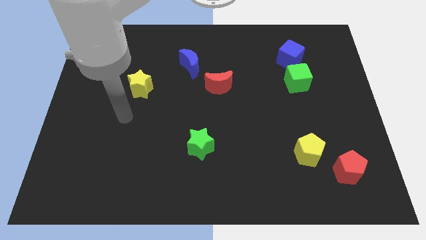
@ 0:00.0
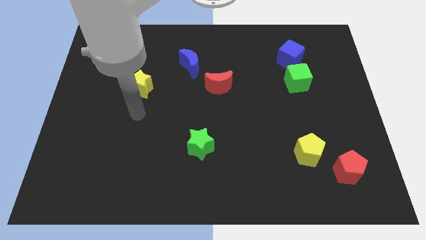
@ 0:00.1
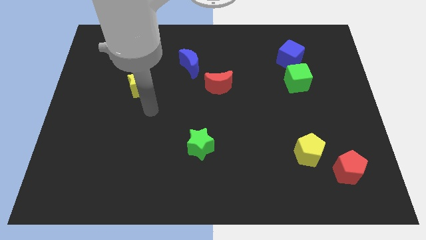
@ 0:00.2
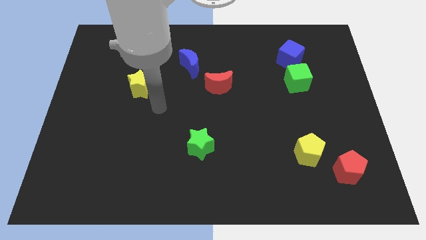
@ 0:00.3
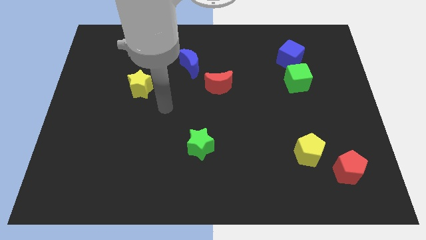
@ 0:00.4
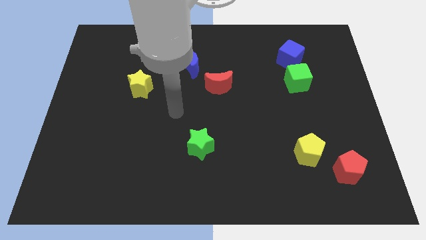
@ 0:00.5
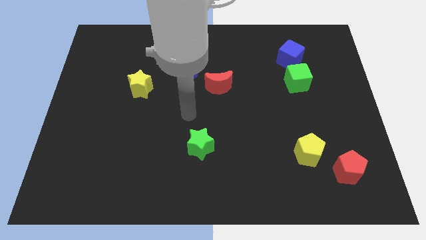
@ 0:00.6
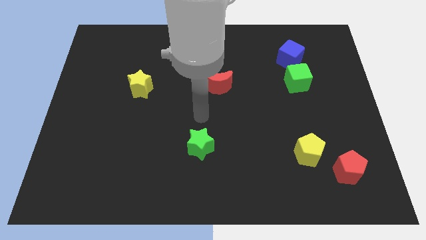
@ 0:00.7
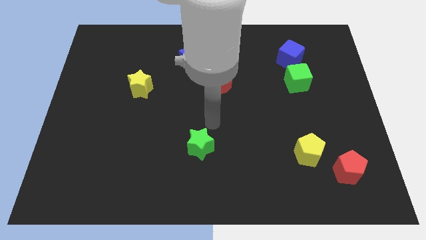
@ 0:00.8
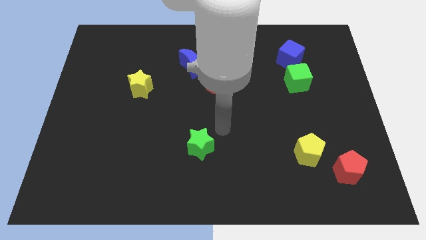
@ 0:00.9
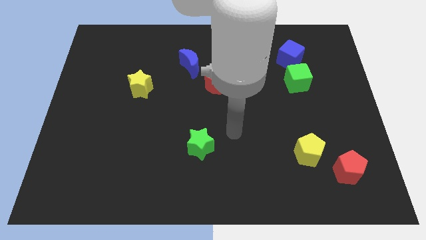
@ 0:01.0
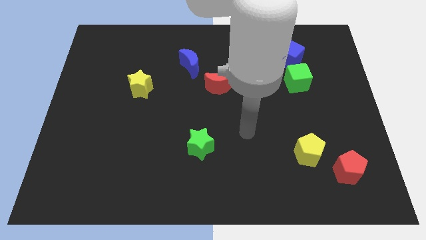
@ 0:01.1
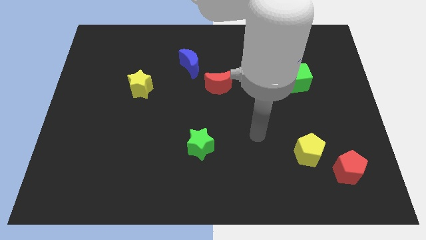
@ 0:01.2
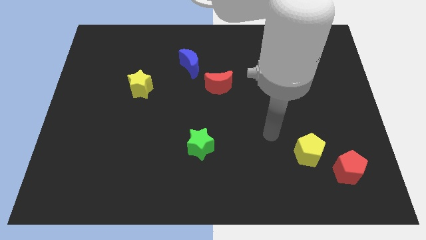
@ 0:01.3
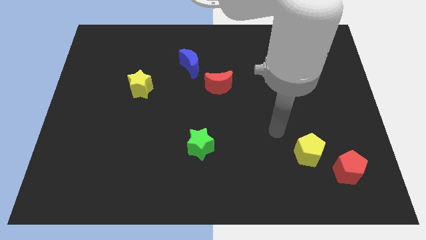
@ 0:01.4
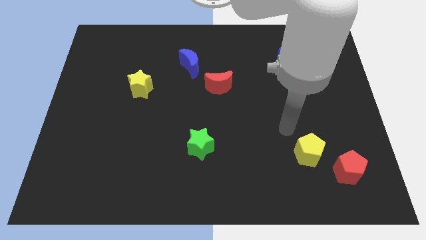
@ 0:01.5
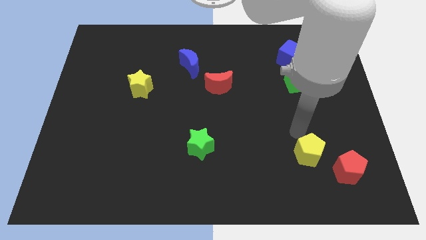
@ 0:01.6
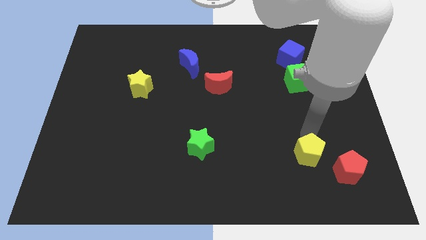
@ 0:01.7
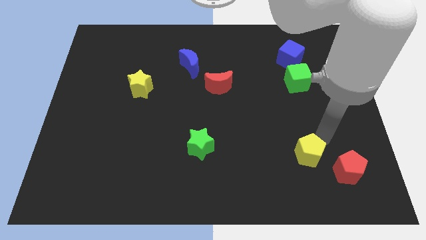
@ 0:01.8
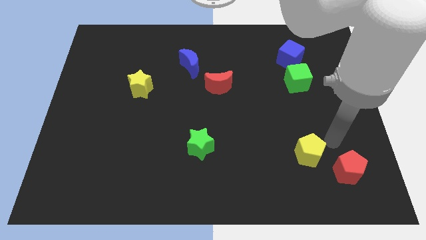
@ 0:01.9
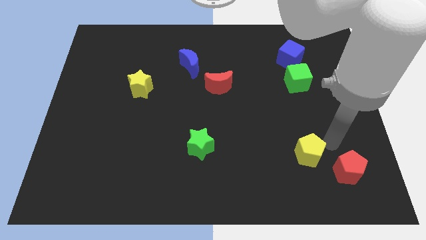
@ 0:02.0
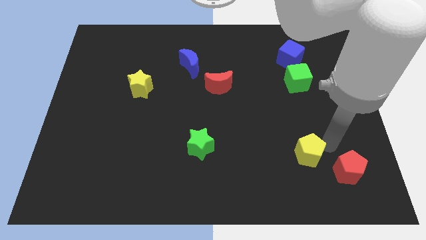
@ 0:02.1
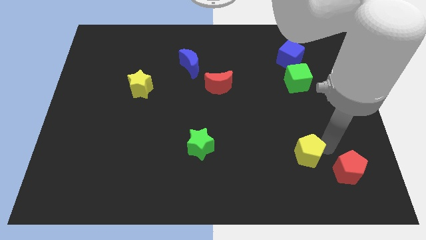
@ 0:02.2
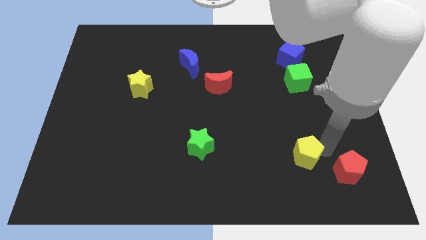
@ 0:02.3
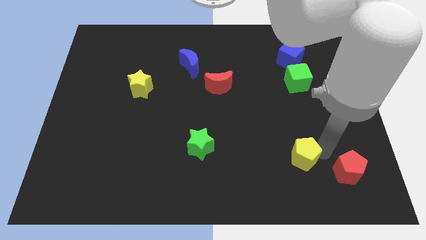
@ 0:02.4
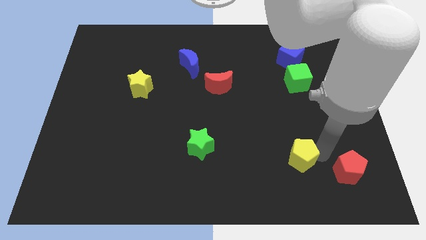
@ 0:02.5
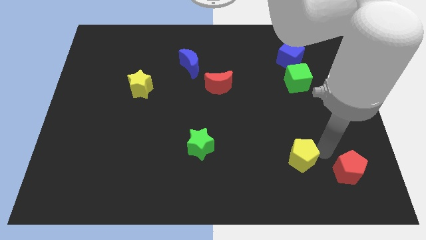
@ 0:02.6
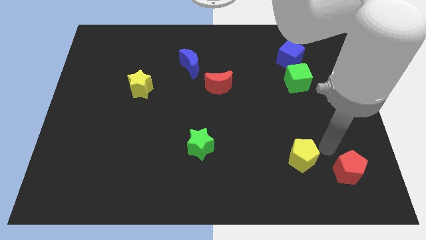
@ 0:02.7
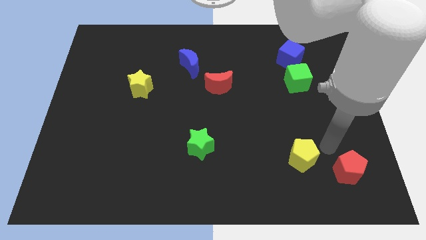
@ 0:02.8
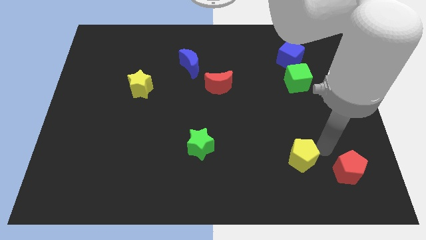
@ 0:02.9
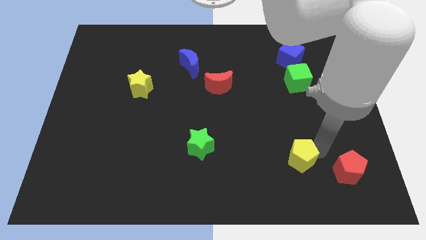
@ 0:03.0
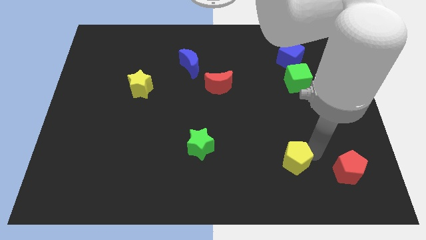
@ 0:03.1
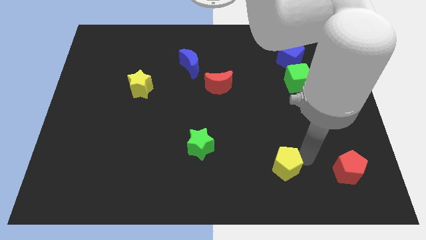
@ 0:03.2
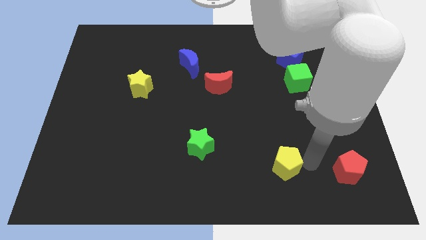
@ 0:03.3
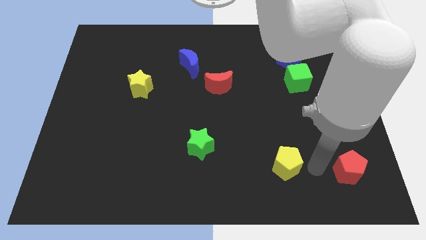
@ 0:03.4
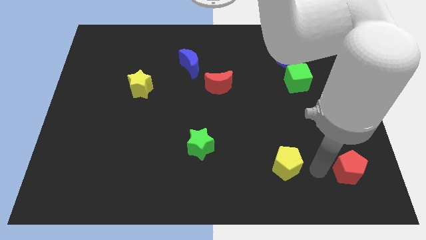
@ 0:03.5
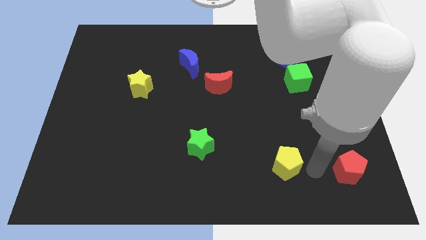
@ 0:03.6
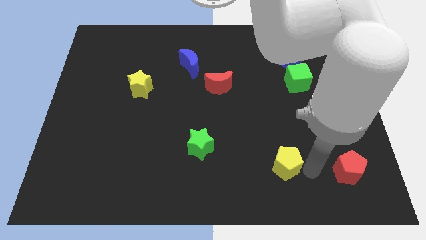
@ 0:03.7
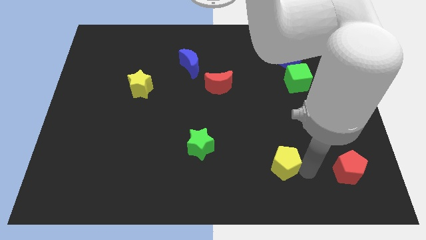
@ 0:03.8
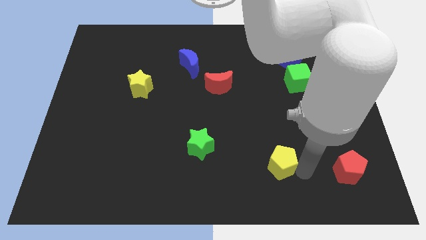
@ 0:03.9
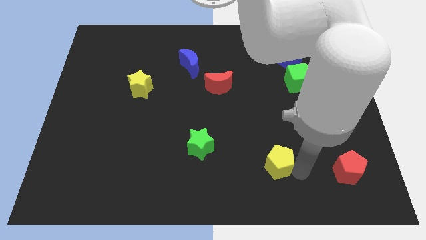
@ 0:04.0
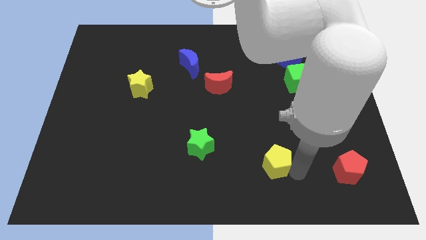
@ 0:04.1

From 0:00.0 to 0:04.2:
push the yellow pentagon to the left somewhat

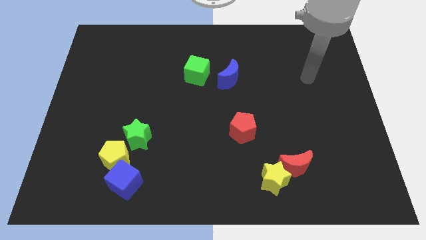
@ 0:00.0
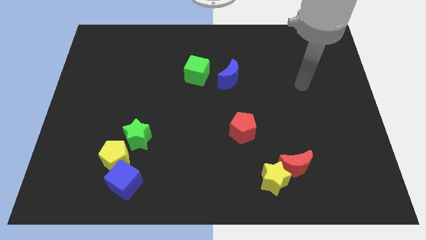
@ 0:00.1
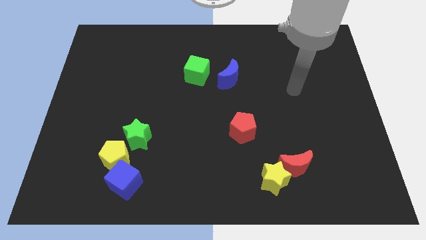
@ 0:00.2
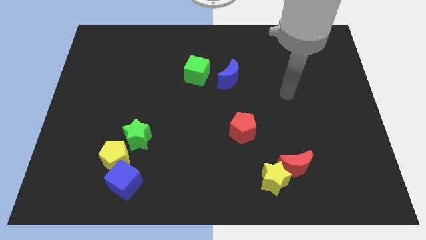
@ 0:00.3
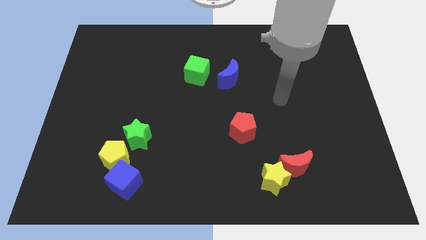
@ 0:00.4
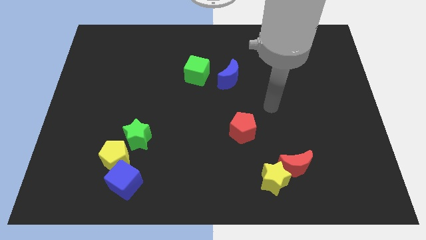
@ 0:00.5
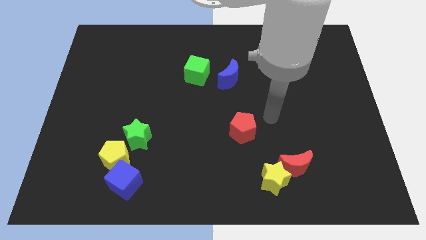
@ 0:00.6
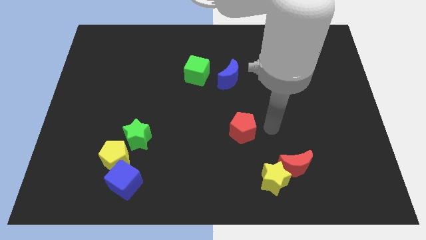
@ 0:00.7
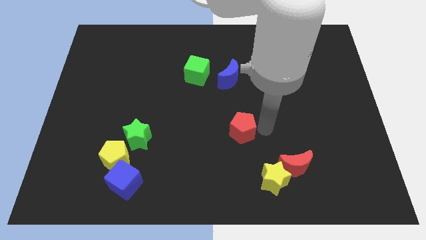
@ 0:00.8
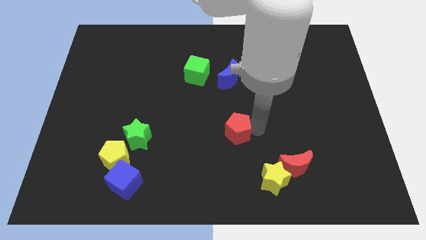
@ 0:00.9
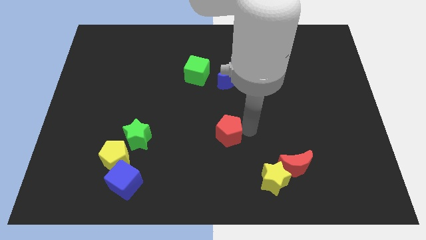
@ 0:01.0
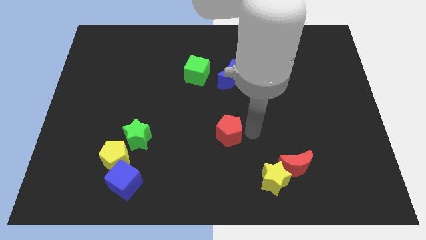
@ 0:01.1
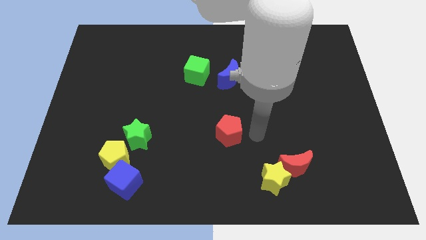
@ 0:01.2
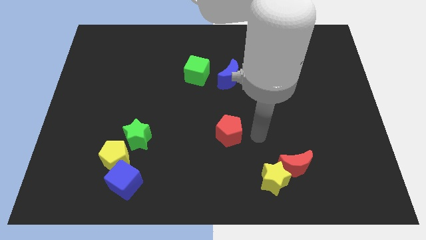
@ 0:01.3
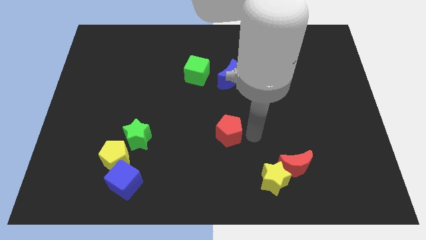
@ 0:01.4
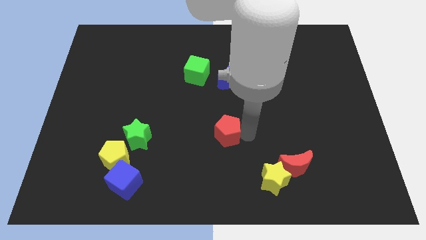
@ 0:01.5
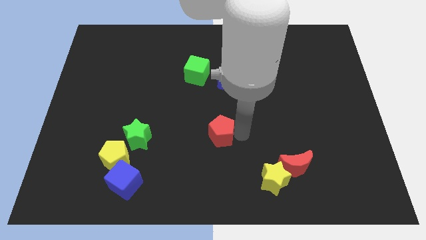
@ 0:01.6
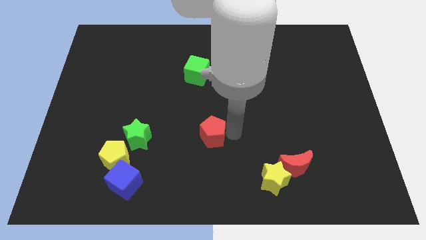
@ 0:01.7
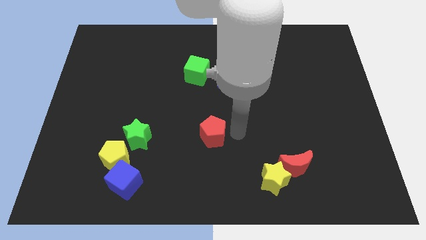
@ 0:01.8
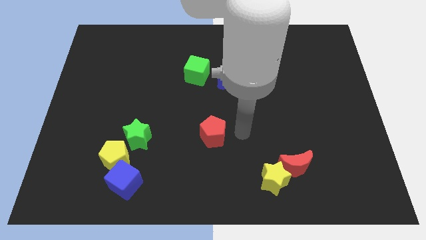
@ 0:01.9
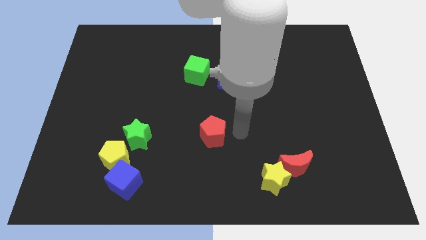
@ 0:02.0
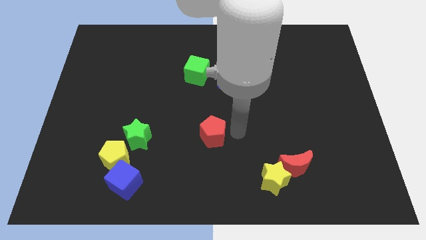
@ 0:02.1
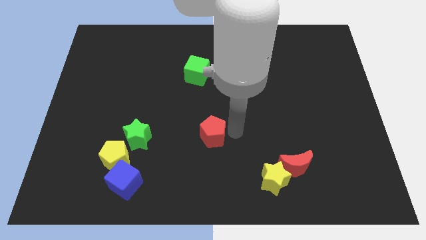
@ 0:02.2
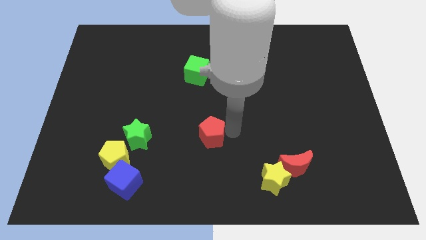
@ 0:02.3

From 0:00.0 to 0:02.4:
move the red pentagon somewhat left

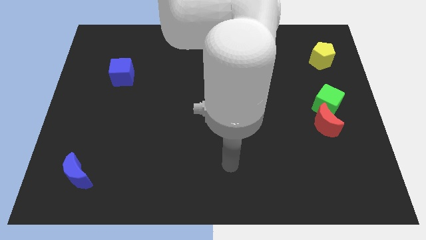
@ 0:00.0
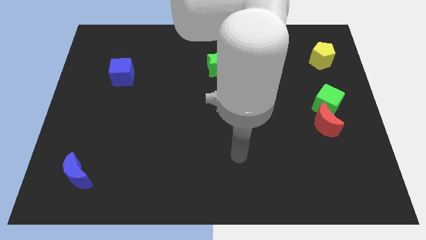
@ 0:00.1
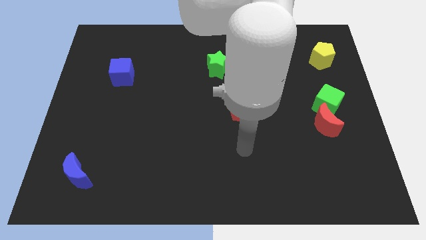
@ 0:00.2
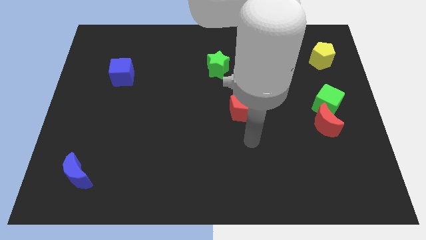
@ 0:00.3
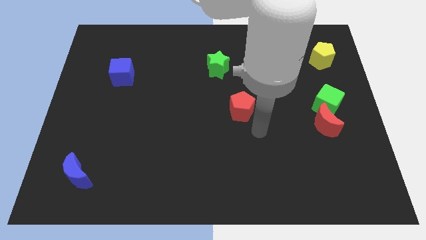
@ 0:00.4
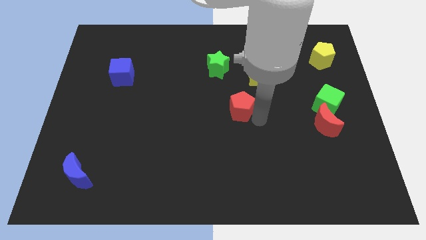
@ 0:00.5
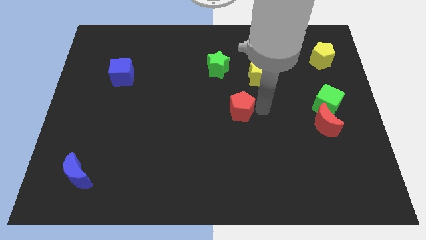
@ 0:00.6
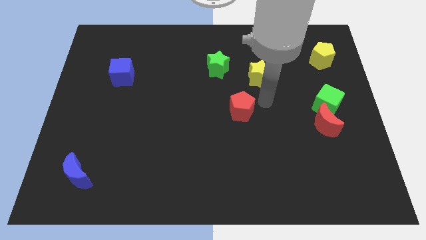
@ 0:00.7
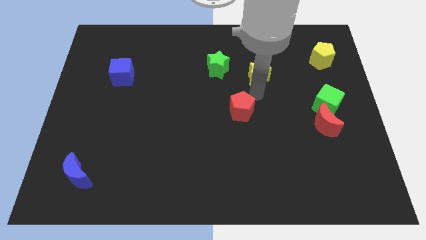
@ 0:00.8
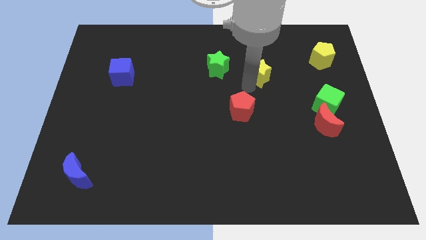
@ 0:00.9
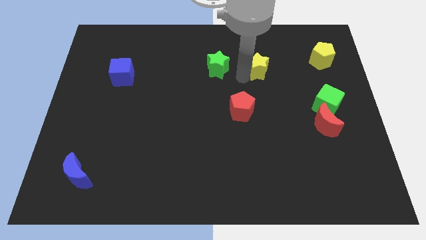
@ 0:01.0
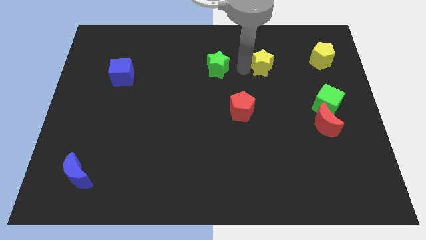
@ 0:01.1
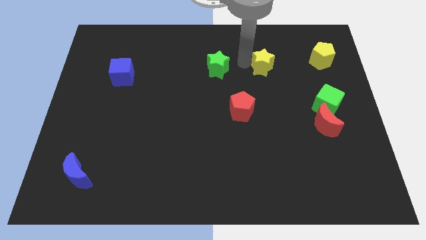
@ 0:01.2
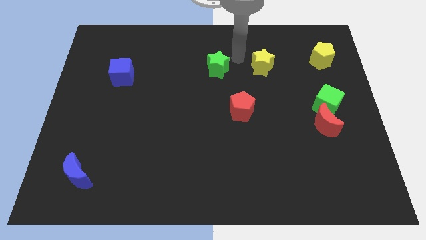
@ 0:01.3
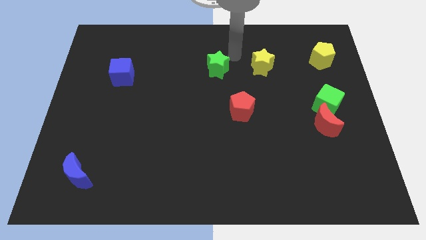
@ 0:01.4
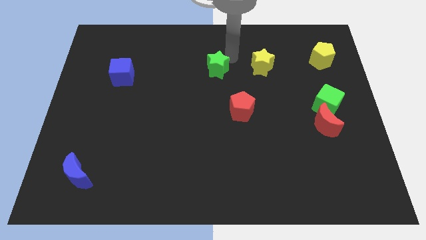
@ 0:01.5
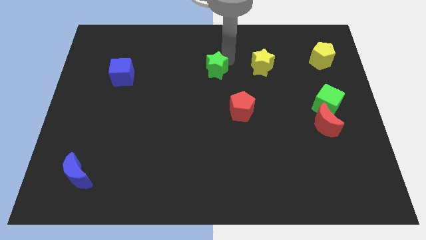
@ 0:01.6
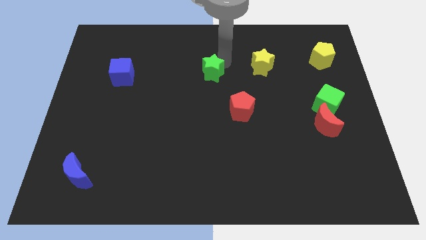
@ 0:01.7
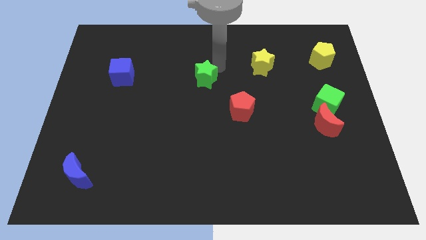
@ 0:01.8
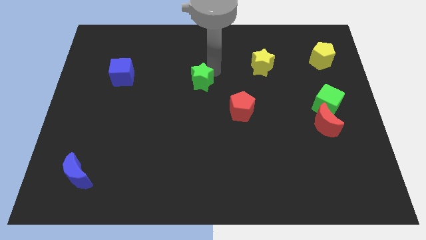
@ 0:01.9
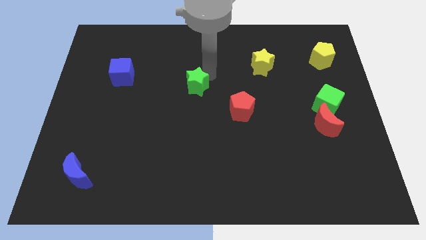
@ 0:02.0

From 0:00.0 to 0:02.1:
move the green star a little downwards and then left
